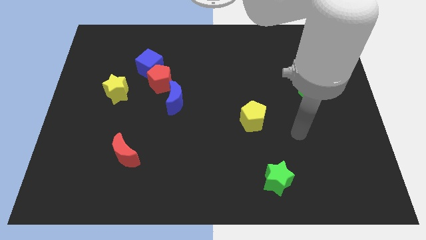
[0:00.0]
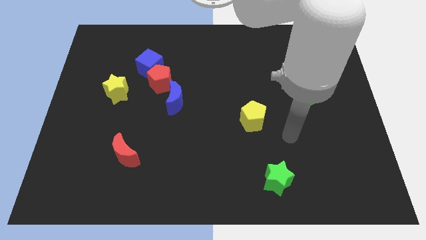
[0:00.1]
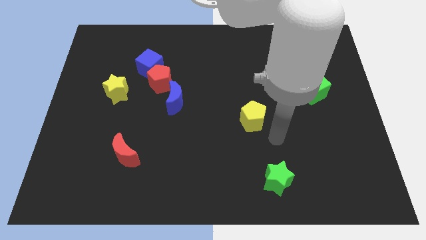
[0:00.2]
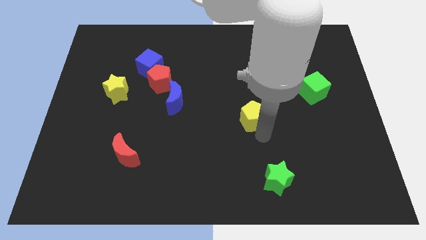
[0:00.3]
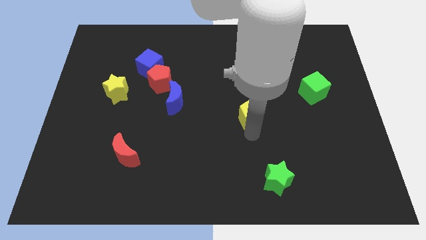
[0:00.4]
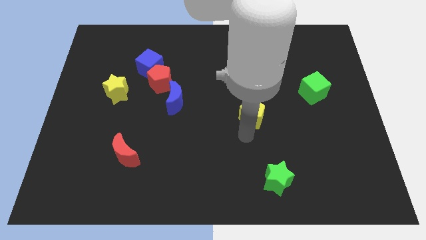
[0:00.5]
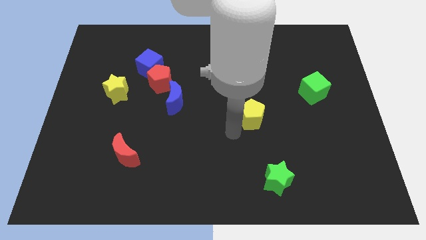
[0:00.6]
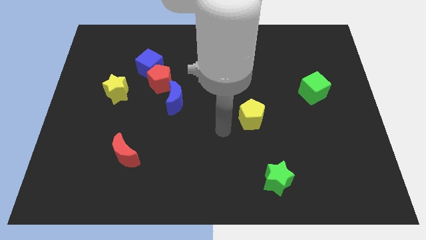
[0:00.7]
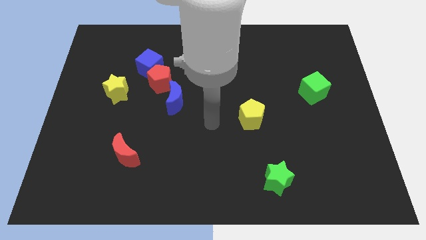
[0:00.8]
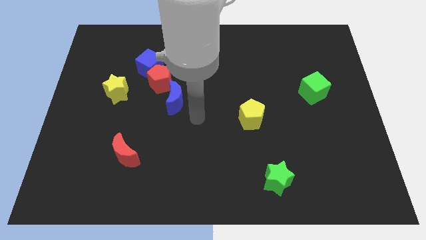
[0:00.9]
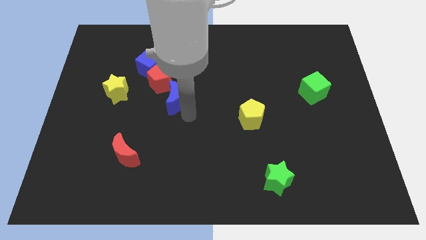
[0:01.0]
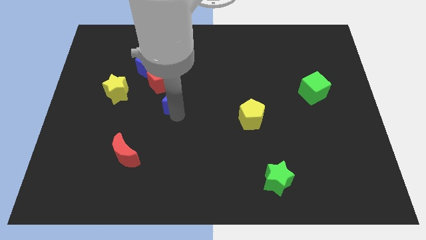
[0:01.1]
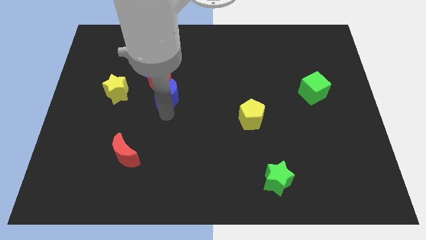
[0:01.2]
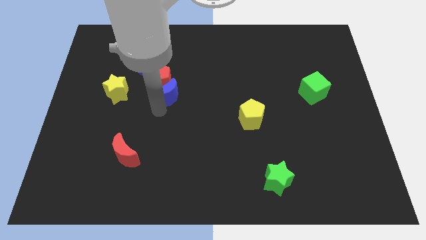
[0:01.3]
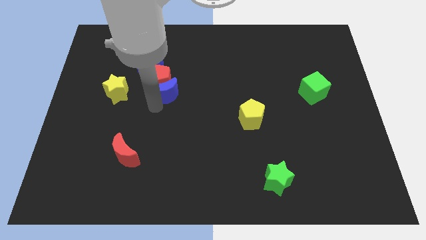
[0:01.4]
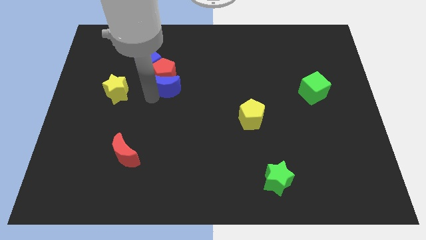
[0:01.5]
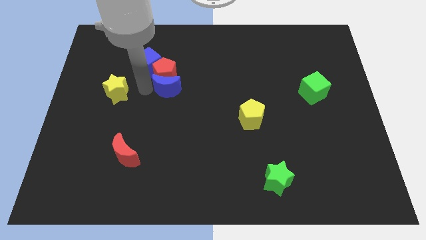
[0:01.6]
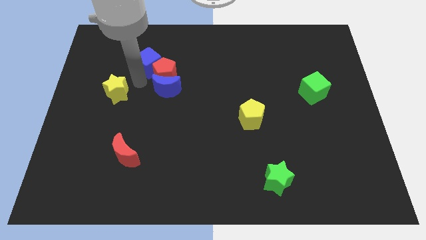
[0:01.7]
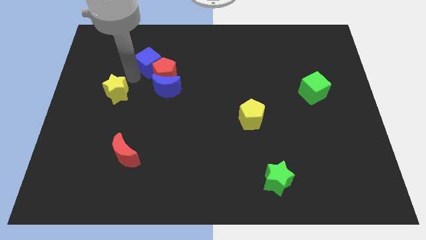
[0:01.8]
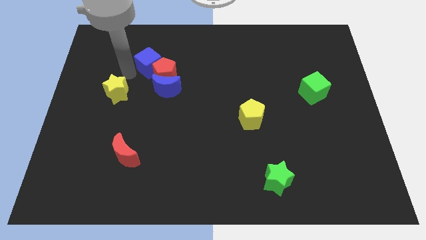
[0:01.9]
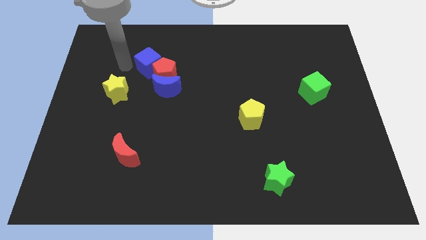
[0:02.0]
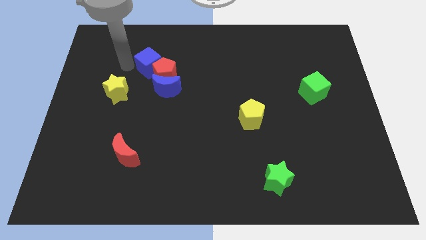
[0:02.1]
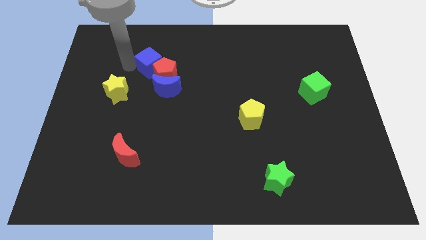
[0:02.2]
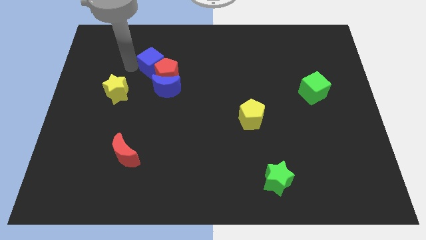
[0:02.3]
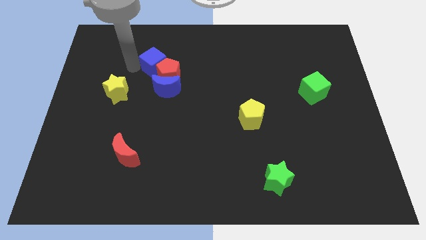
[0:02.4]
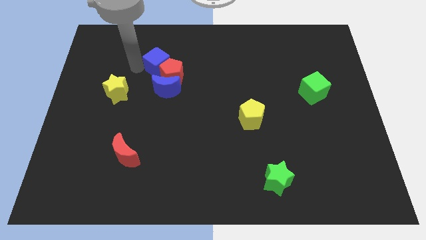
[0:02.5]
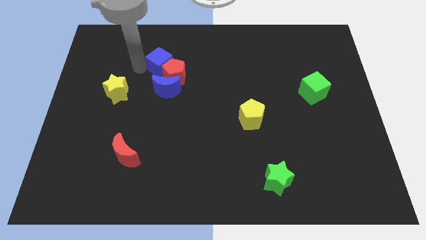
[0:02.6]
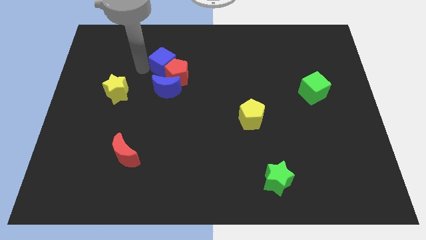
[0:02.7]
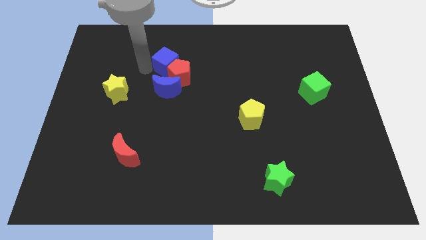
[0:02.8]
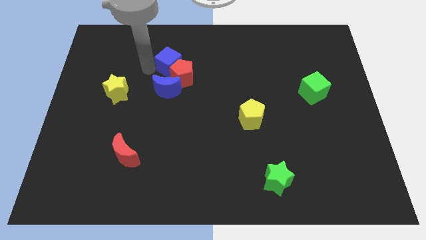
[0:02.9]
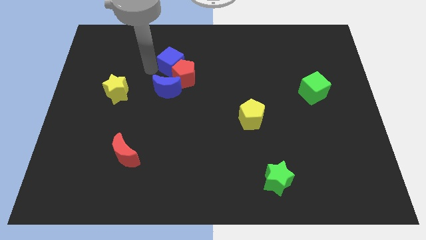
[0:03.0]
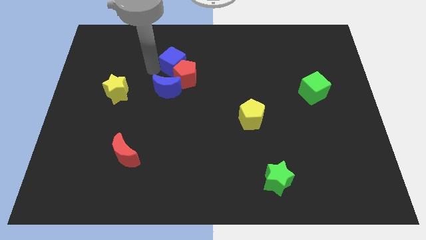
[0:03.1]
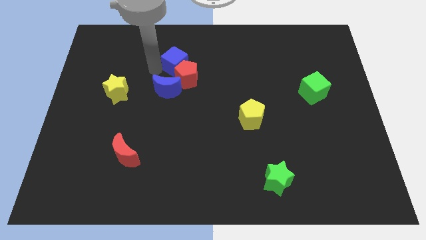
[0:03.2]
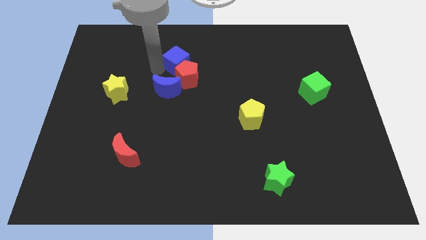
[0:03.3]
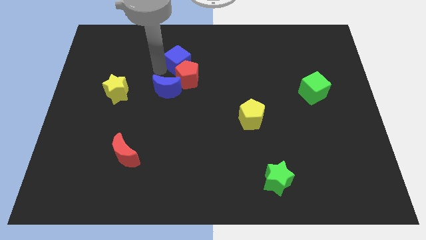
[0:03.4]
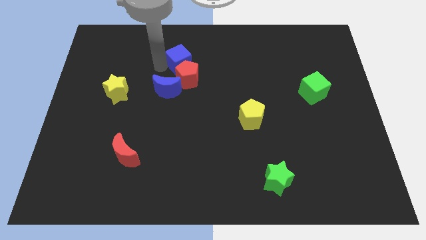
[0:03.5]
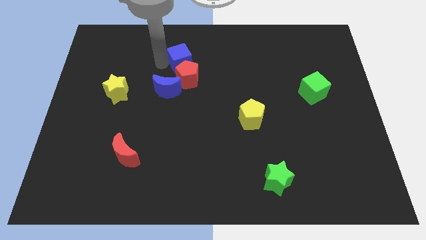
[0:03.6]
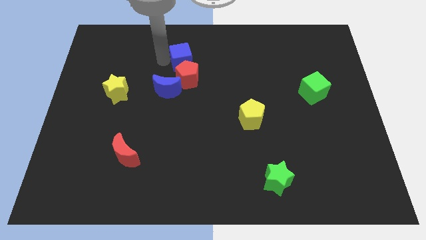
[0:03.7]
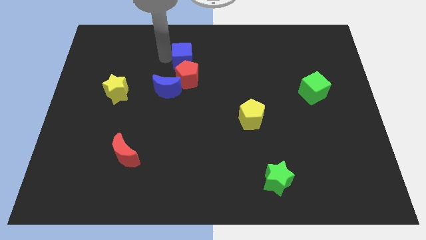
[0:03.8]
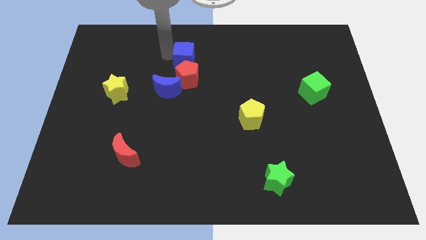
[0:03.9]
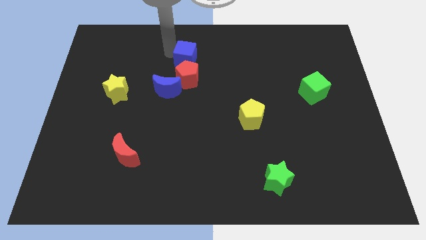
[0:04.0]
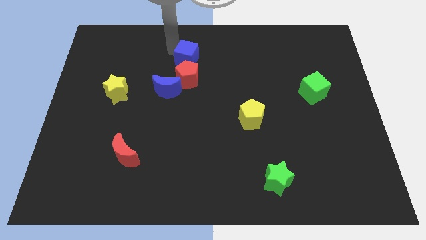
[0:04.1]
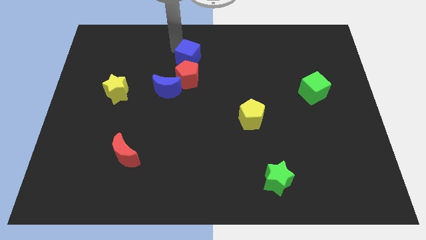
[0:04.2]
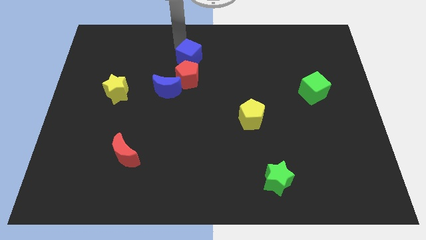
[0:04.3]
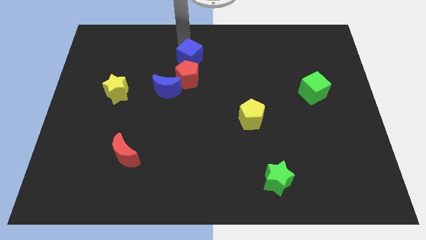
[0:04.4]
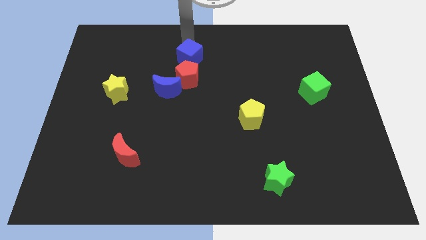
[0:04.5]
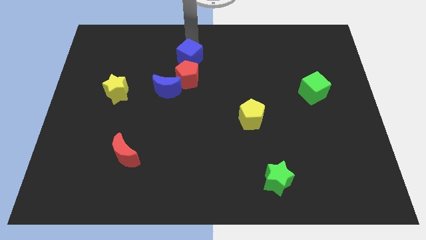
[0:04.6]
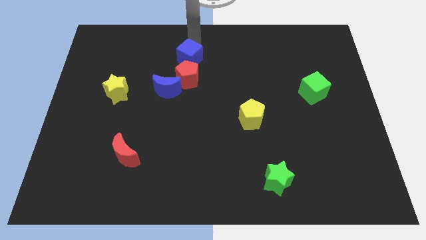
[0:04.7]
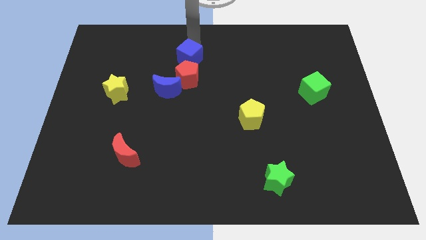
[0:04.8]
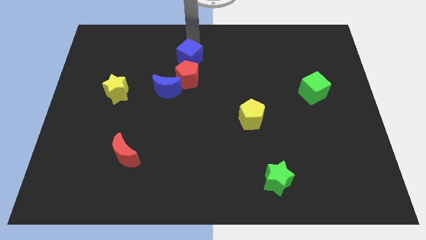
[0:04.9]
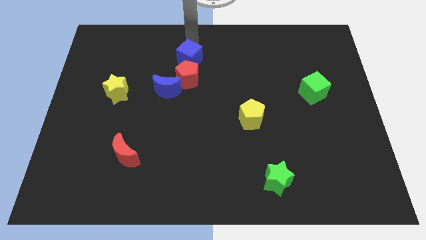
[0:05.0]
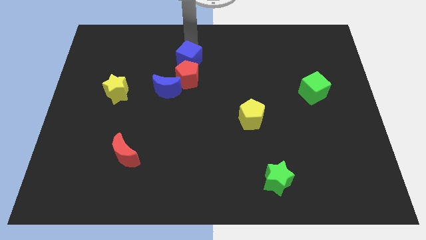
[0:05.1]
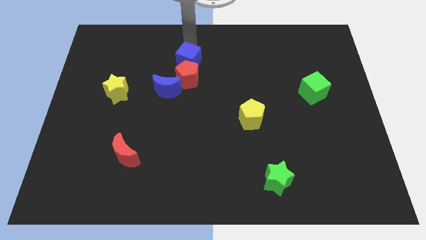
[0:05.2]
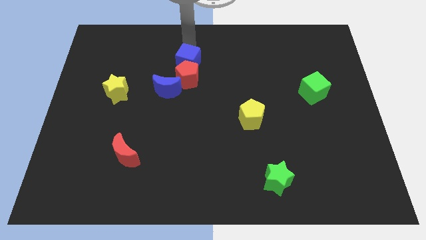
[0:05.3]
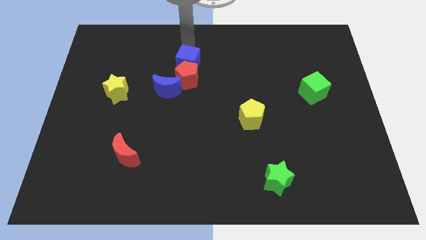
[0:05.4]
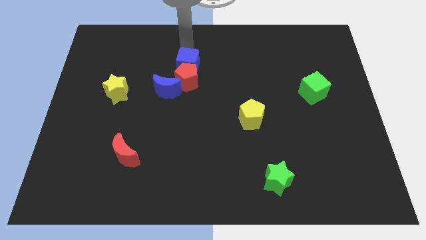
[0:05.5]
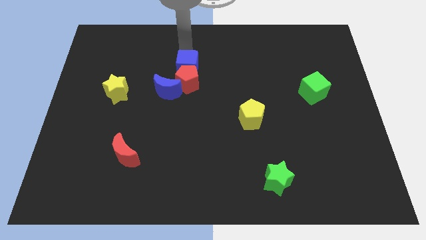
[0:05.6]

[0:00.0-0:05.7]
put the blue cube to the middle

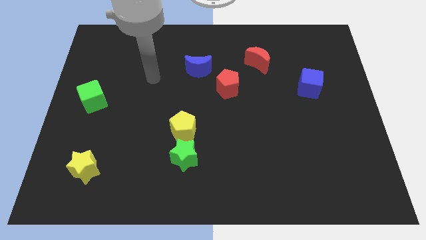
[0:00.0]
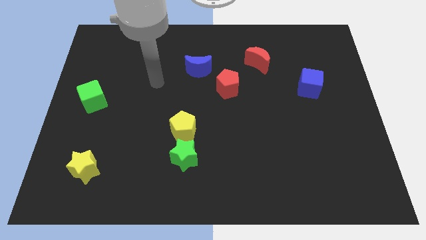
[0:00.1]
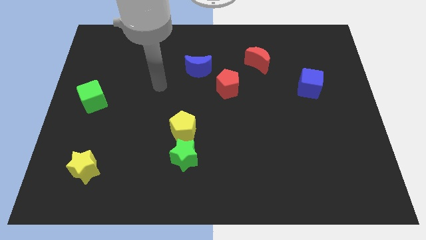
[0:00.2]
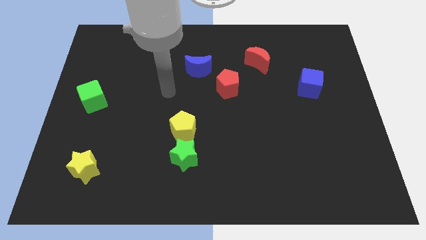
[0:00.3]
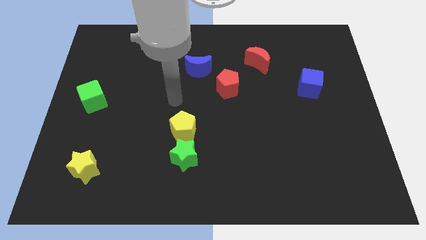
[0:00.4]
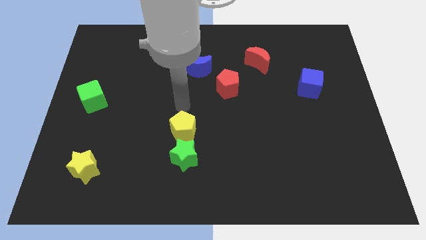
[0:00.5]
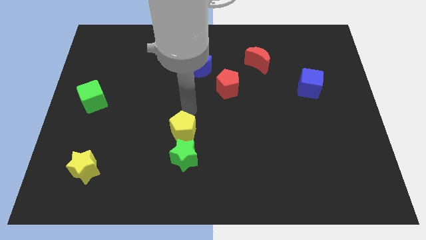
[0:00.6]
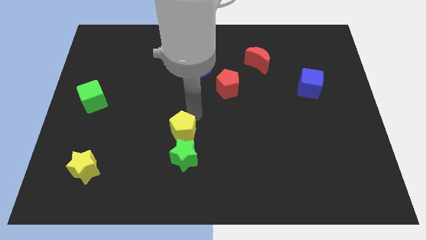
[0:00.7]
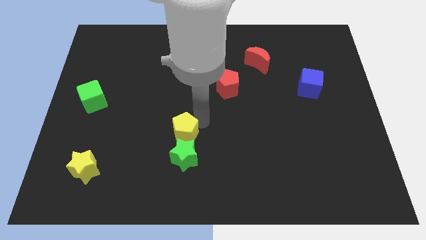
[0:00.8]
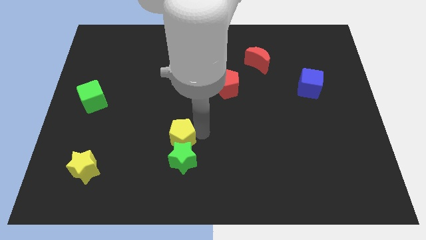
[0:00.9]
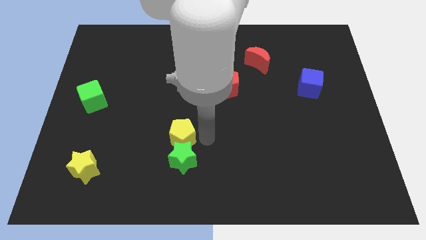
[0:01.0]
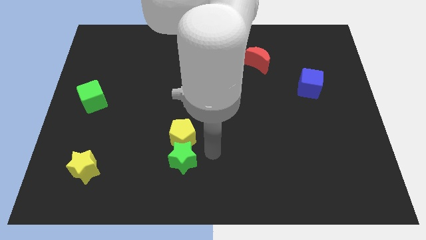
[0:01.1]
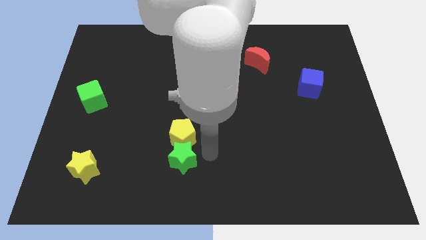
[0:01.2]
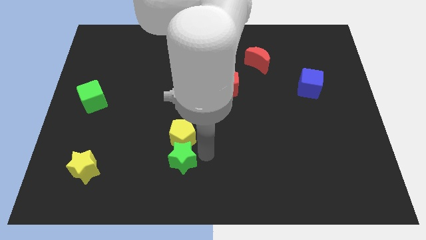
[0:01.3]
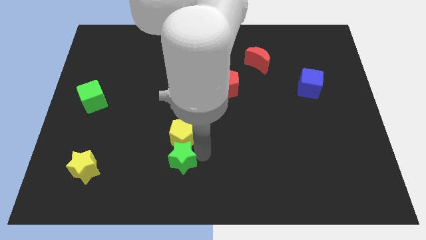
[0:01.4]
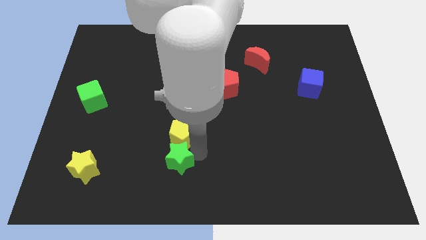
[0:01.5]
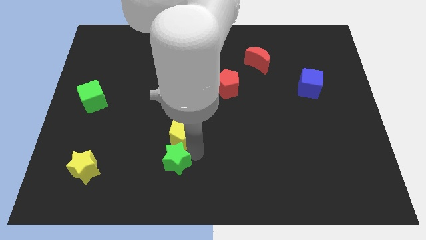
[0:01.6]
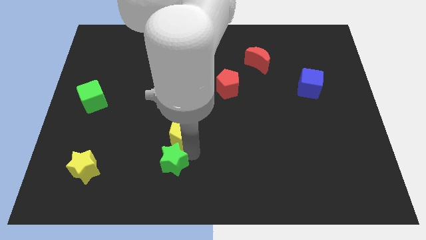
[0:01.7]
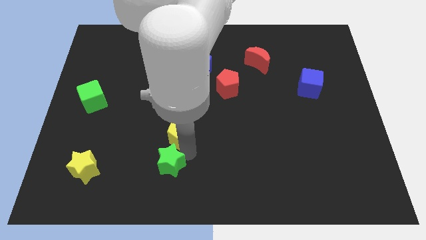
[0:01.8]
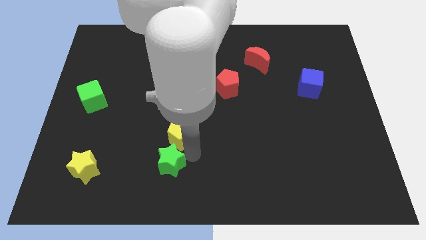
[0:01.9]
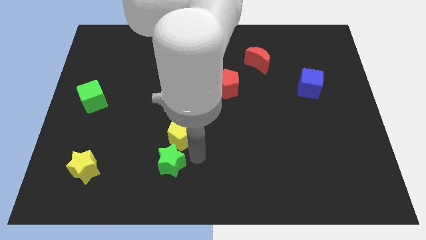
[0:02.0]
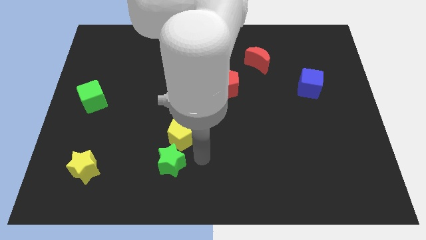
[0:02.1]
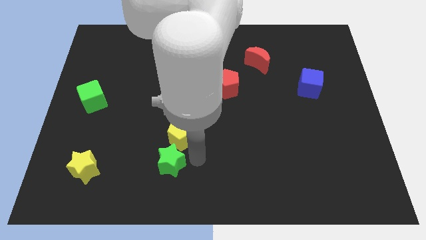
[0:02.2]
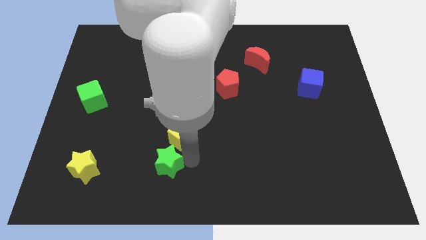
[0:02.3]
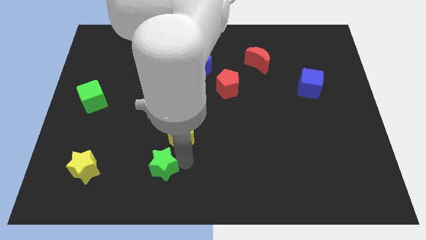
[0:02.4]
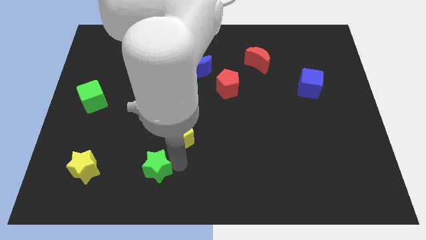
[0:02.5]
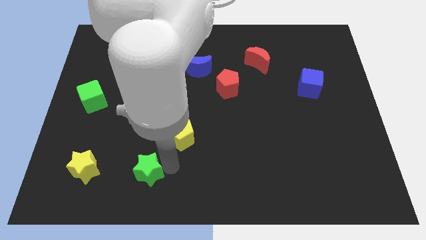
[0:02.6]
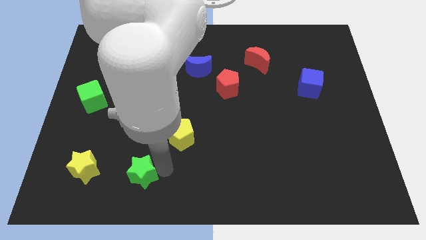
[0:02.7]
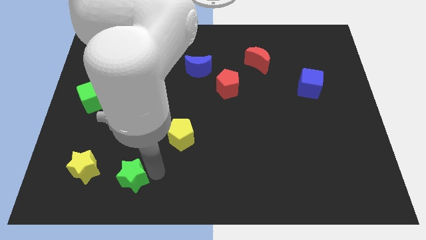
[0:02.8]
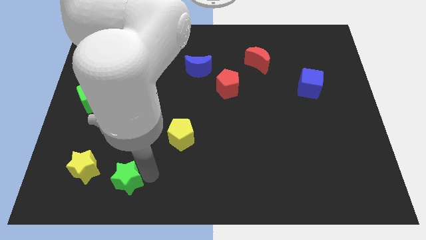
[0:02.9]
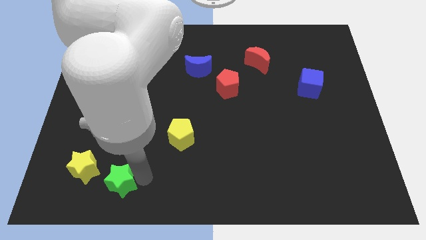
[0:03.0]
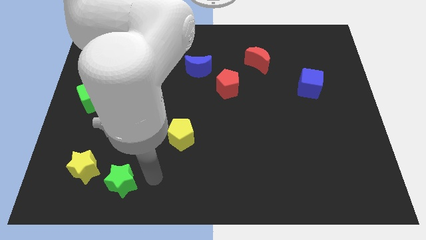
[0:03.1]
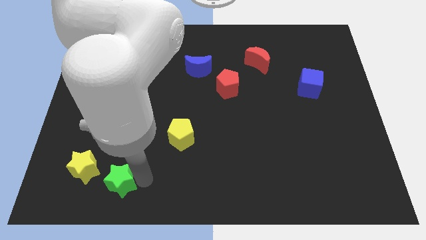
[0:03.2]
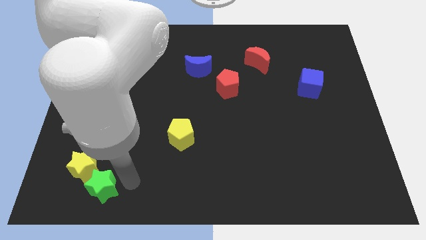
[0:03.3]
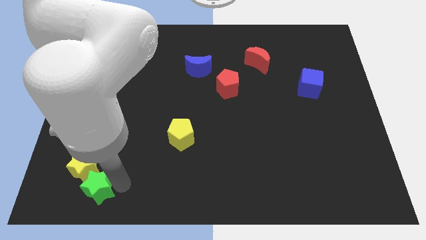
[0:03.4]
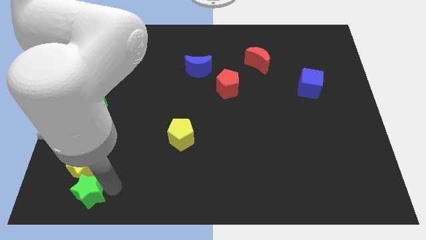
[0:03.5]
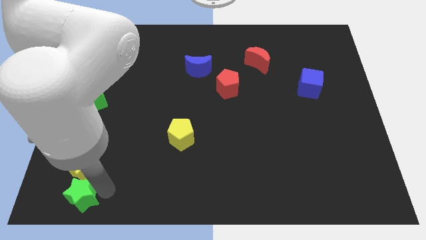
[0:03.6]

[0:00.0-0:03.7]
put the green star to the bottom left of the board
